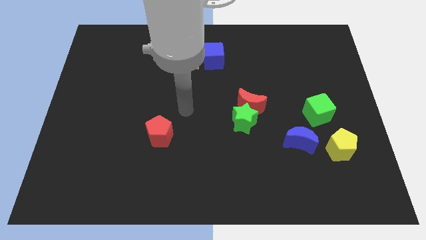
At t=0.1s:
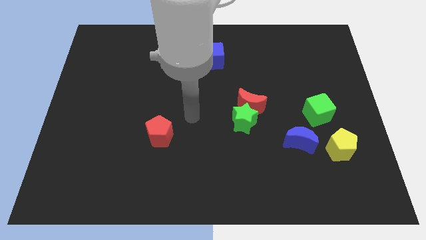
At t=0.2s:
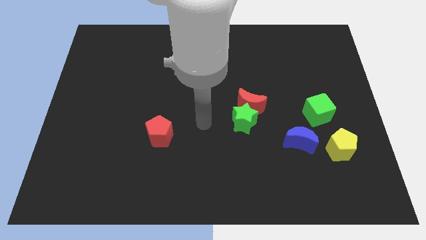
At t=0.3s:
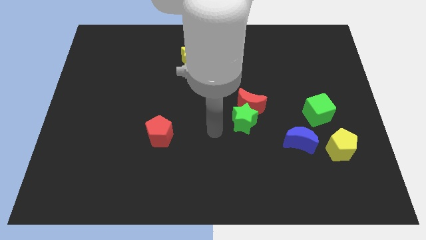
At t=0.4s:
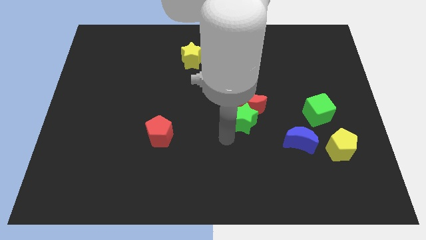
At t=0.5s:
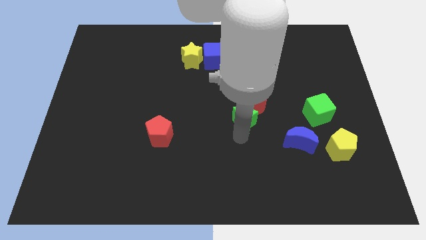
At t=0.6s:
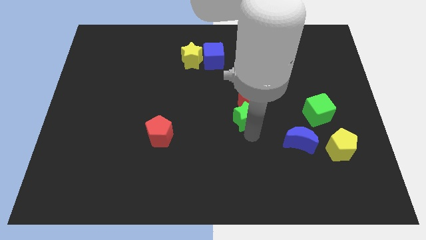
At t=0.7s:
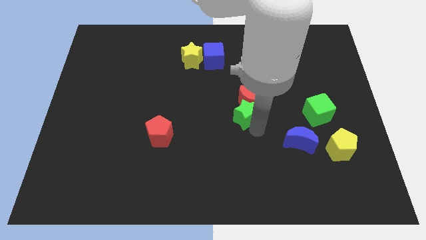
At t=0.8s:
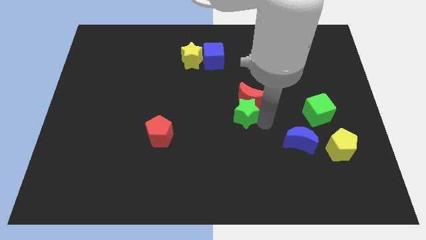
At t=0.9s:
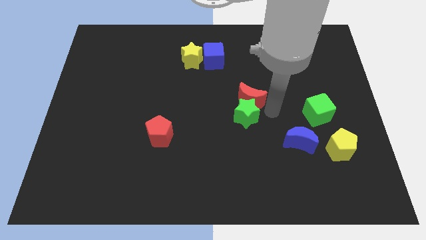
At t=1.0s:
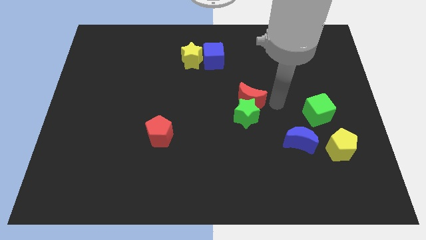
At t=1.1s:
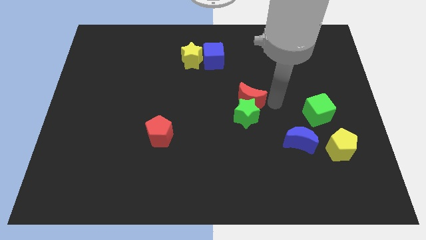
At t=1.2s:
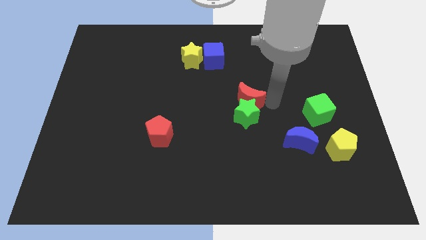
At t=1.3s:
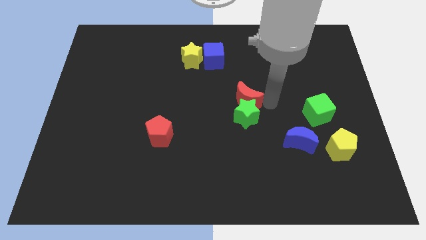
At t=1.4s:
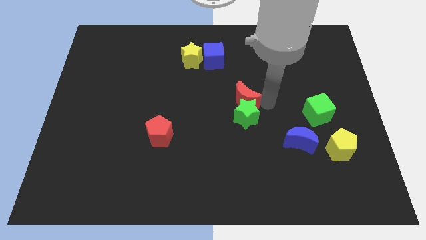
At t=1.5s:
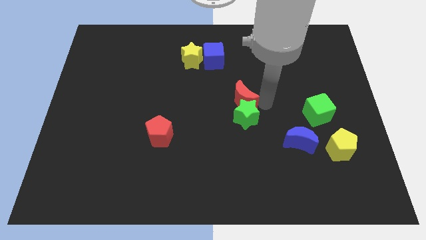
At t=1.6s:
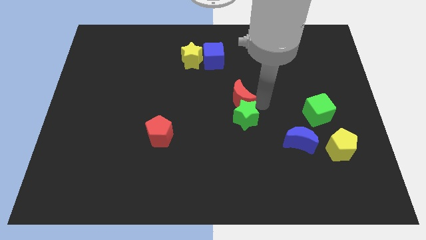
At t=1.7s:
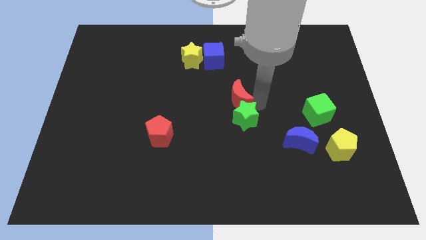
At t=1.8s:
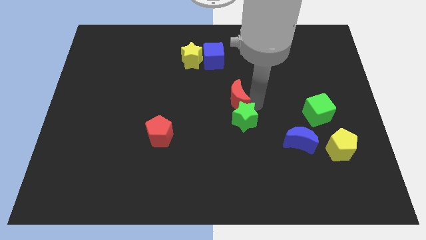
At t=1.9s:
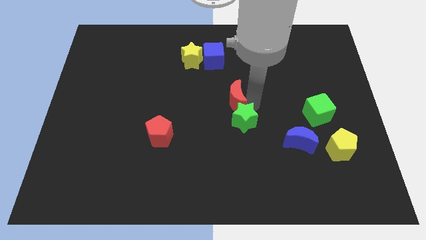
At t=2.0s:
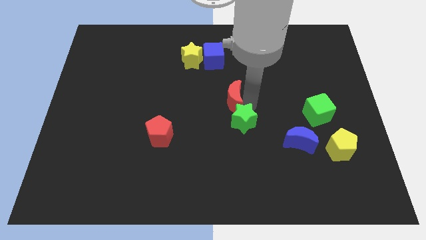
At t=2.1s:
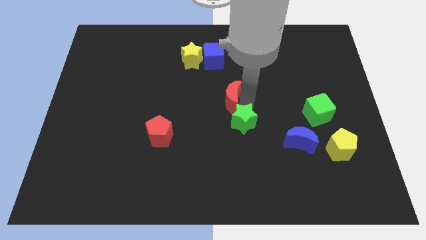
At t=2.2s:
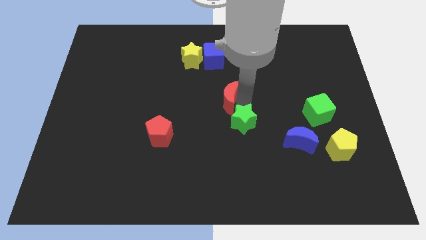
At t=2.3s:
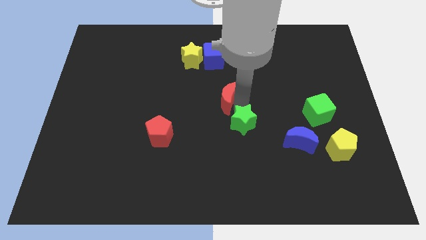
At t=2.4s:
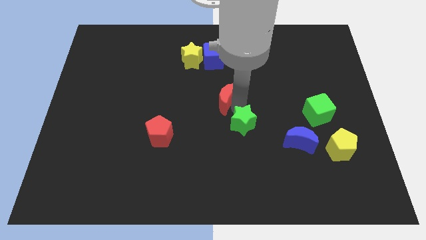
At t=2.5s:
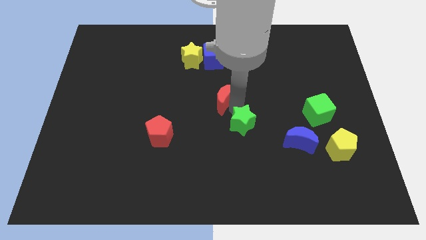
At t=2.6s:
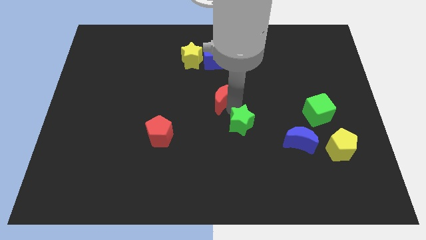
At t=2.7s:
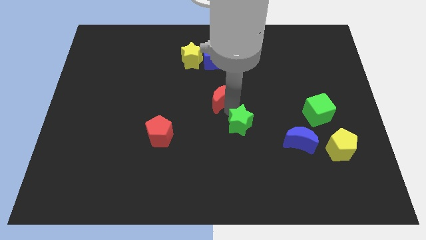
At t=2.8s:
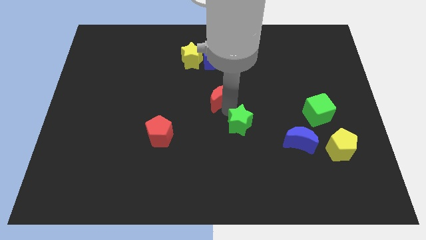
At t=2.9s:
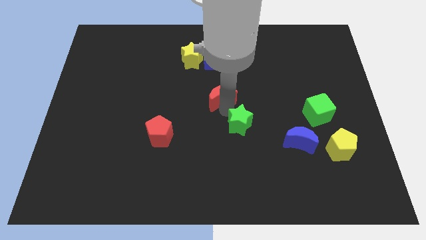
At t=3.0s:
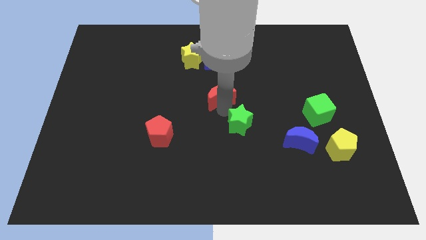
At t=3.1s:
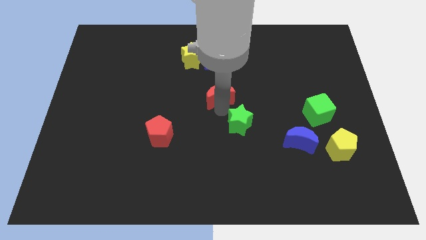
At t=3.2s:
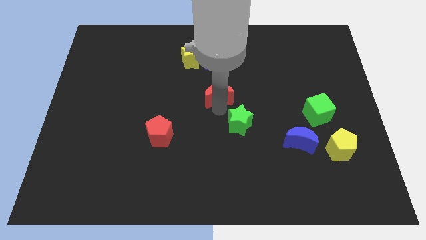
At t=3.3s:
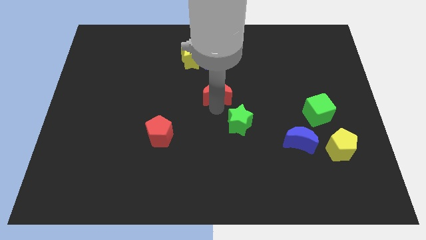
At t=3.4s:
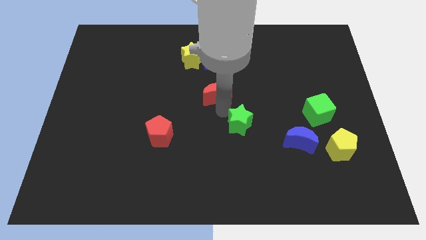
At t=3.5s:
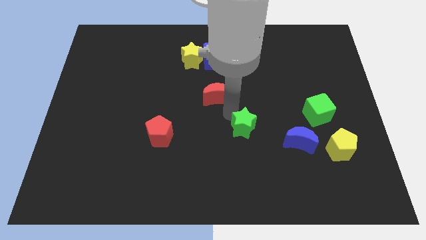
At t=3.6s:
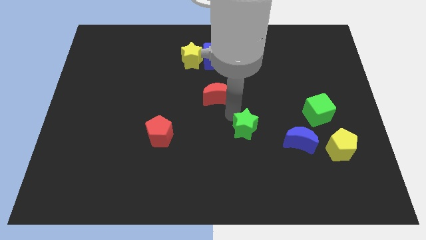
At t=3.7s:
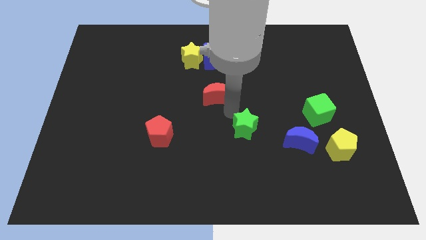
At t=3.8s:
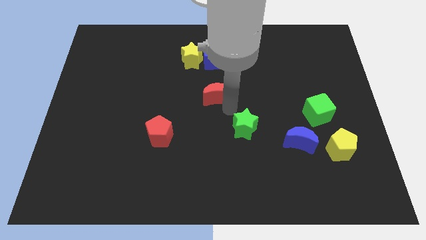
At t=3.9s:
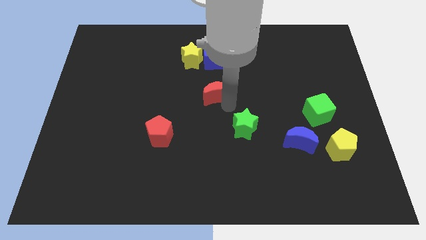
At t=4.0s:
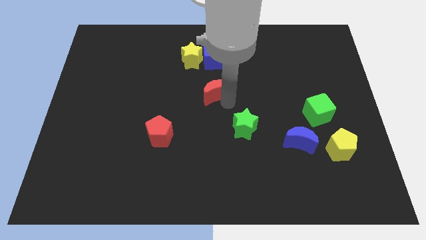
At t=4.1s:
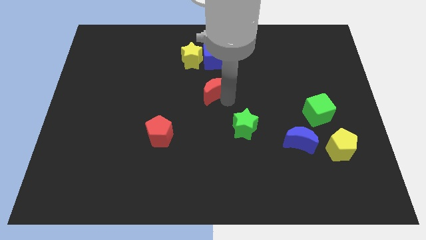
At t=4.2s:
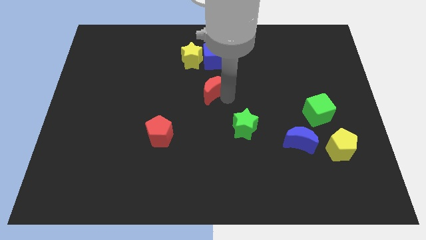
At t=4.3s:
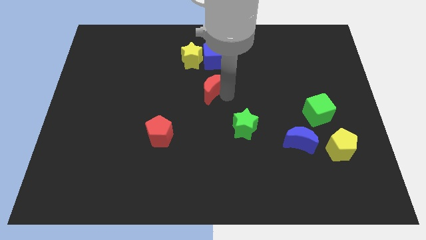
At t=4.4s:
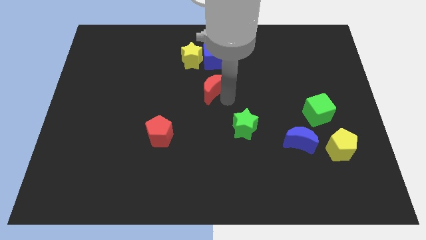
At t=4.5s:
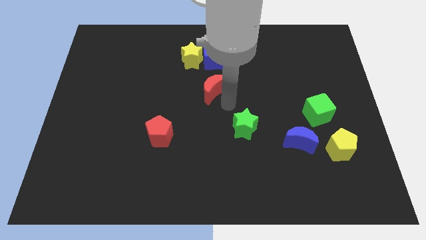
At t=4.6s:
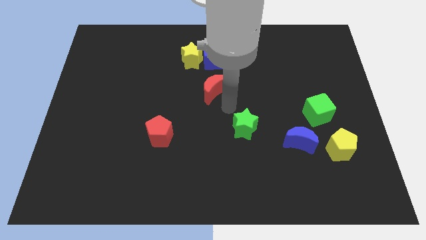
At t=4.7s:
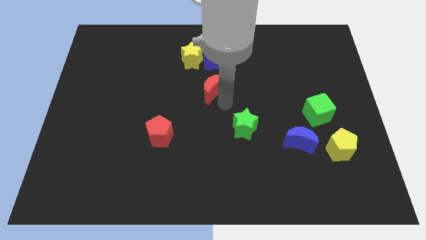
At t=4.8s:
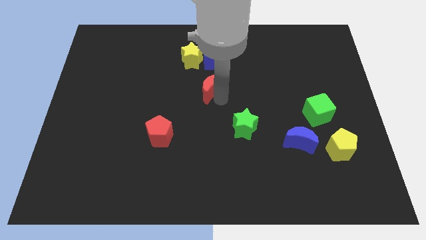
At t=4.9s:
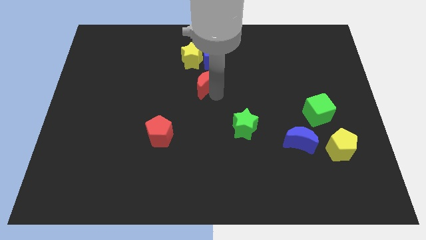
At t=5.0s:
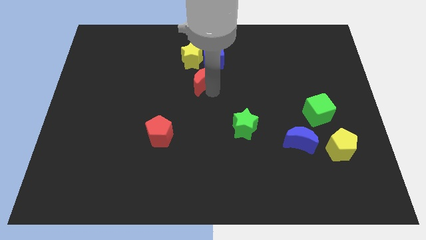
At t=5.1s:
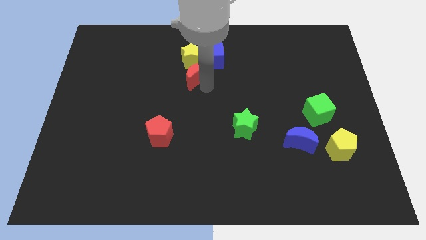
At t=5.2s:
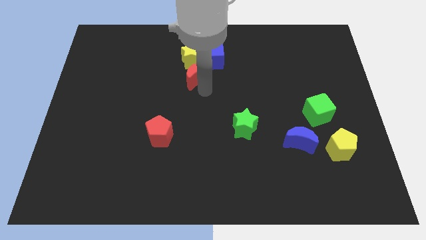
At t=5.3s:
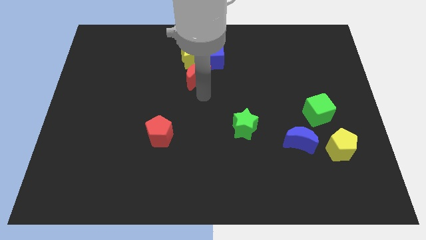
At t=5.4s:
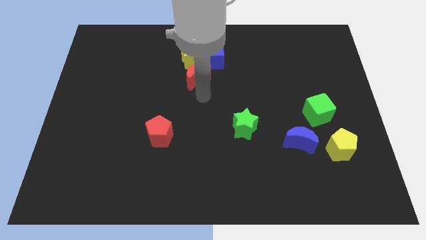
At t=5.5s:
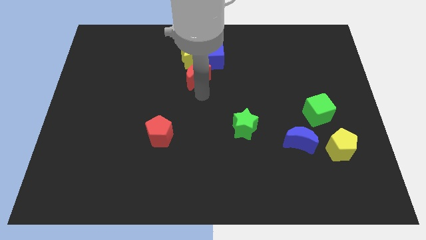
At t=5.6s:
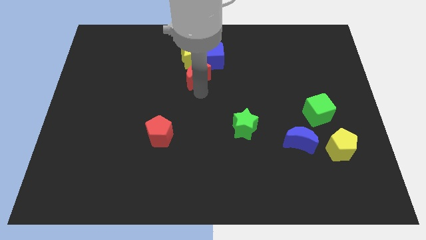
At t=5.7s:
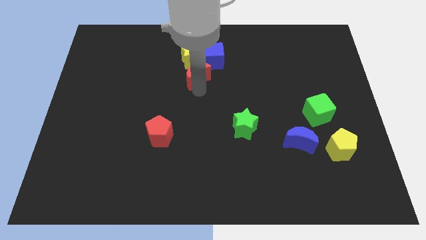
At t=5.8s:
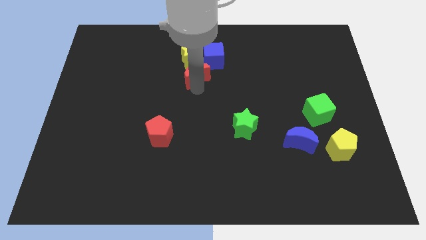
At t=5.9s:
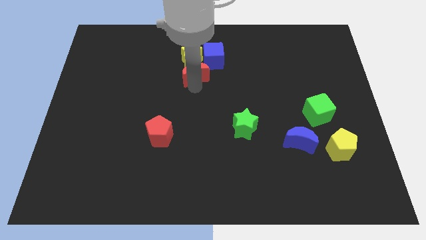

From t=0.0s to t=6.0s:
move the red moon to the yellow star

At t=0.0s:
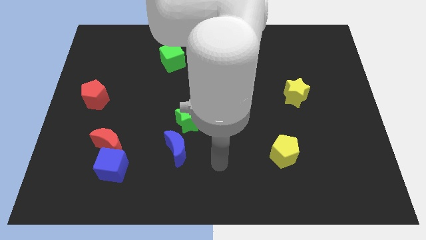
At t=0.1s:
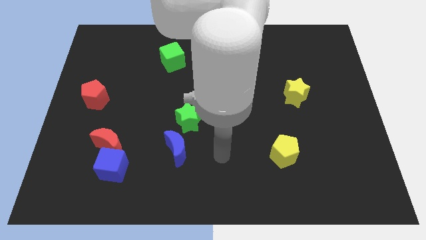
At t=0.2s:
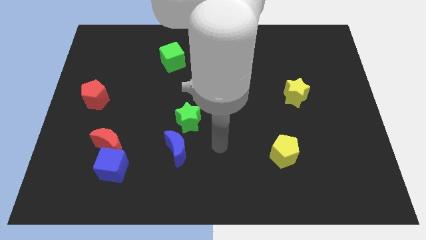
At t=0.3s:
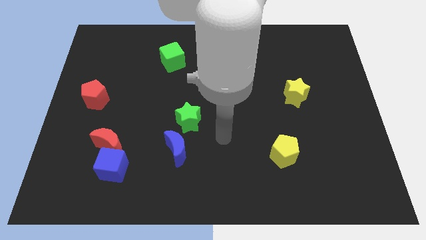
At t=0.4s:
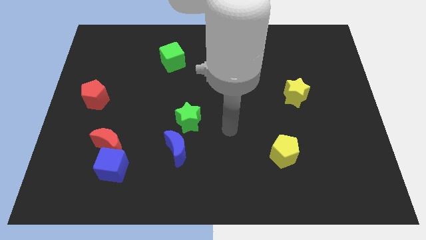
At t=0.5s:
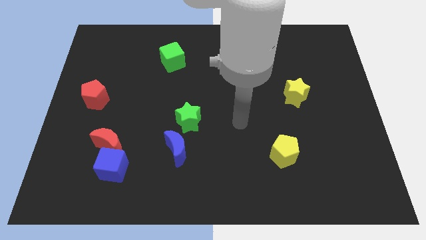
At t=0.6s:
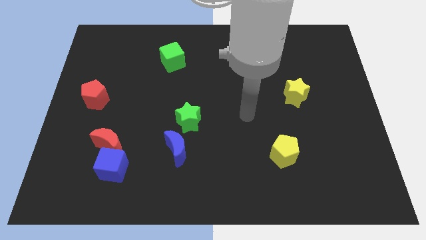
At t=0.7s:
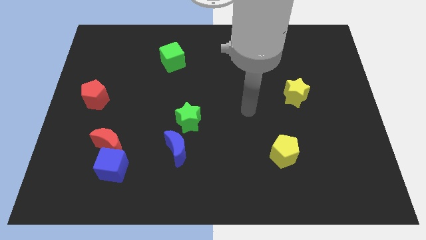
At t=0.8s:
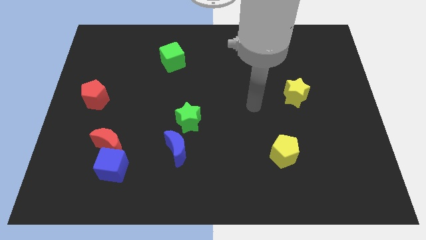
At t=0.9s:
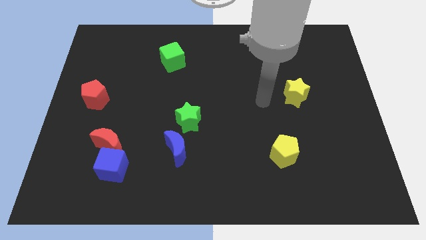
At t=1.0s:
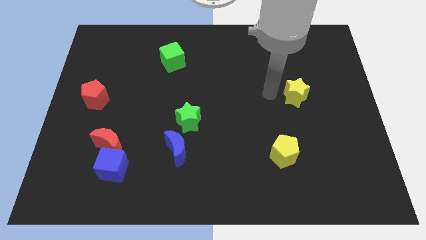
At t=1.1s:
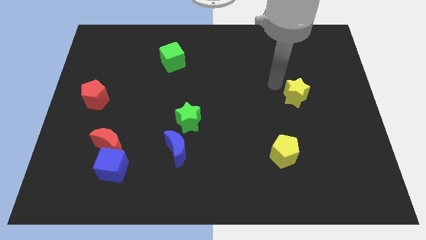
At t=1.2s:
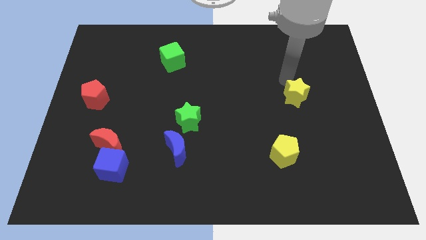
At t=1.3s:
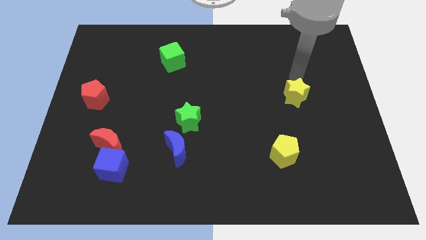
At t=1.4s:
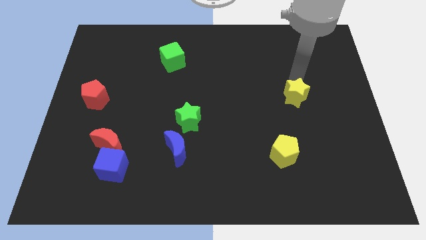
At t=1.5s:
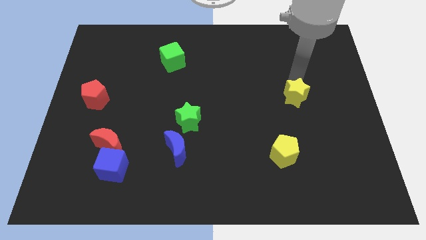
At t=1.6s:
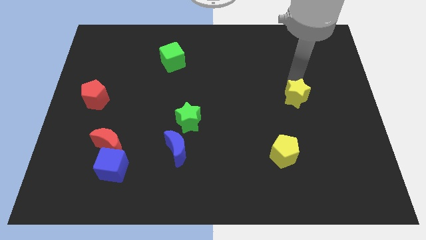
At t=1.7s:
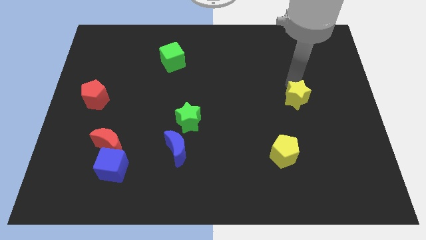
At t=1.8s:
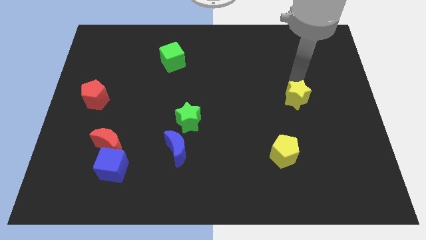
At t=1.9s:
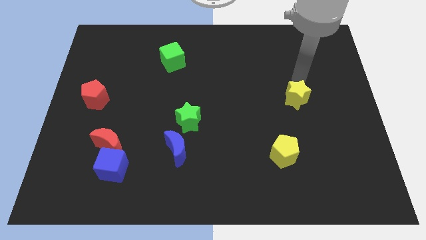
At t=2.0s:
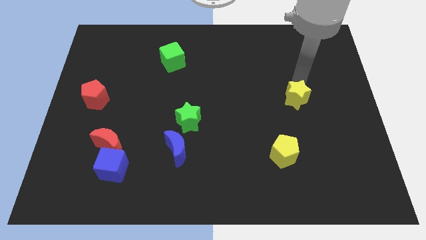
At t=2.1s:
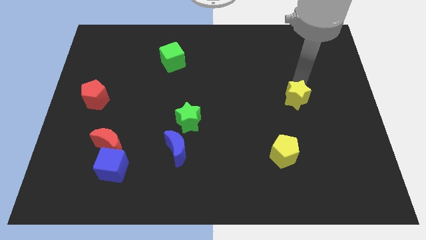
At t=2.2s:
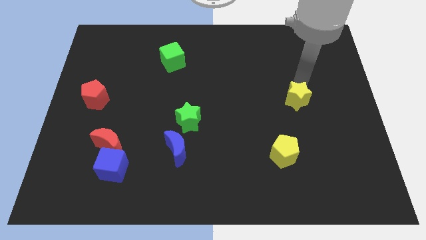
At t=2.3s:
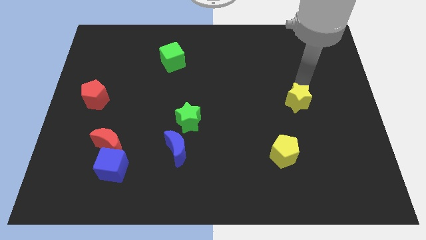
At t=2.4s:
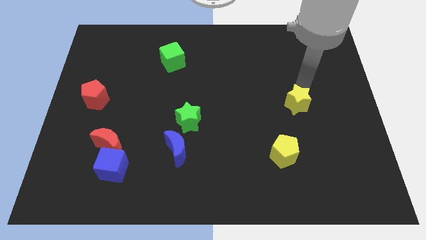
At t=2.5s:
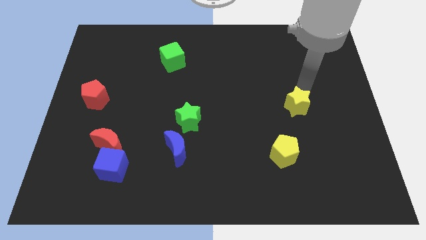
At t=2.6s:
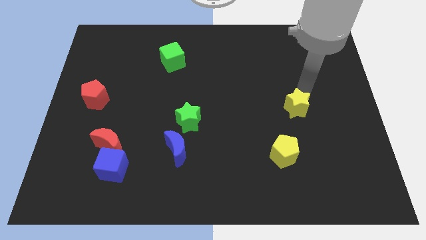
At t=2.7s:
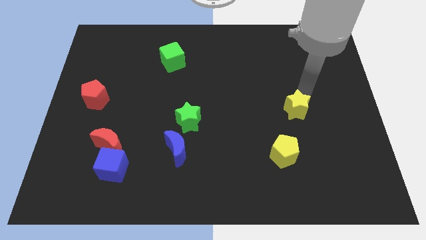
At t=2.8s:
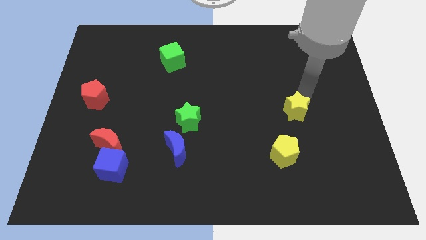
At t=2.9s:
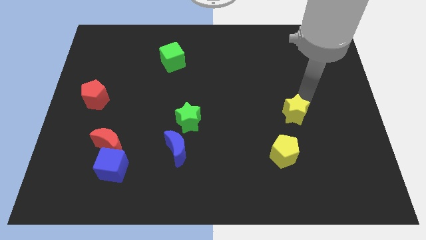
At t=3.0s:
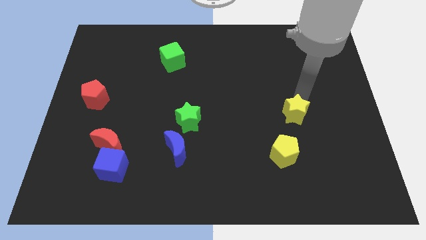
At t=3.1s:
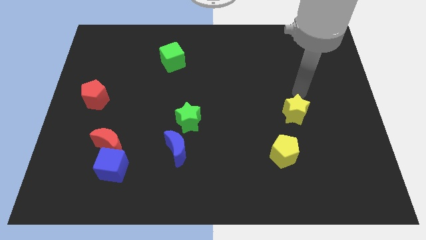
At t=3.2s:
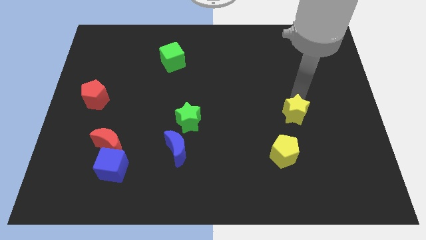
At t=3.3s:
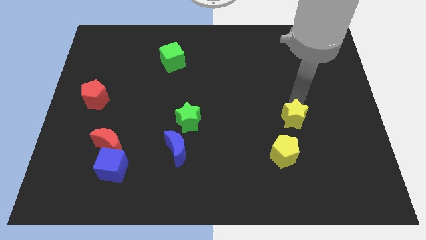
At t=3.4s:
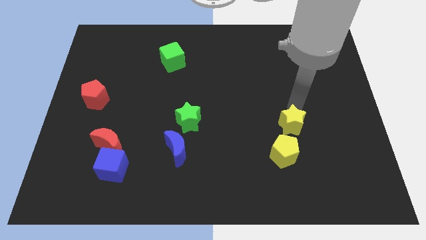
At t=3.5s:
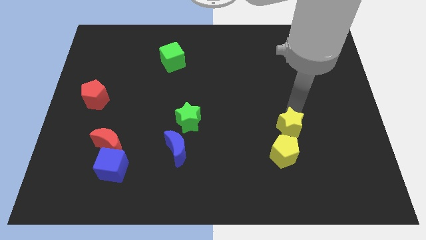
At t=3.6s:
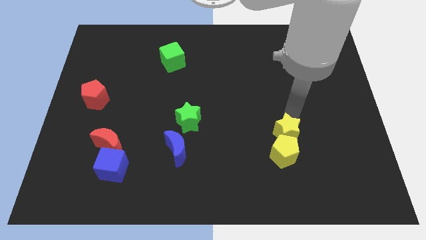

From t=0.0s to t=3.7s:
push the yellow star towards the yellow pentagon
